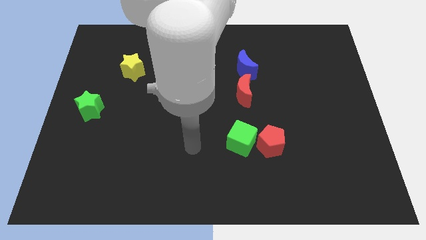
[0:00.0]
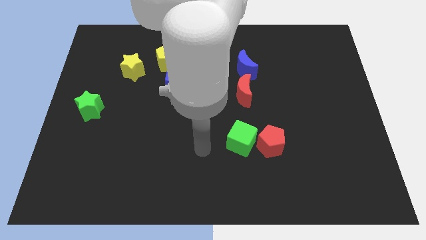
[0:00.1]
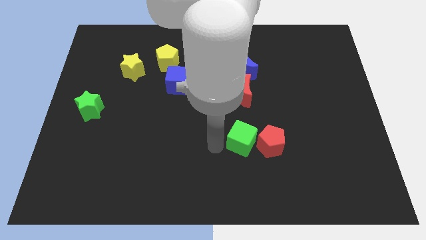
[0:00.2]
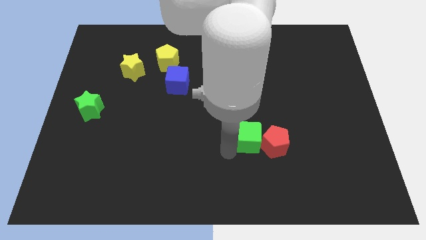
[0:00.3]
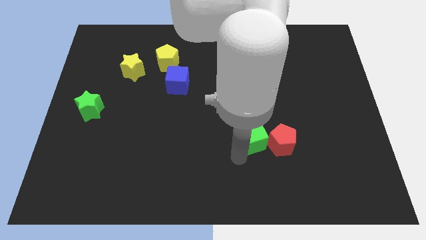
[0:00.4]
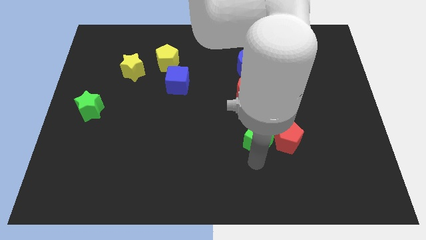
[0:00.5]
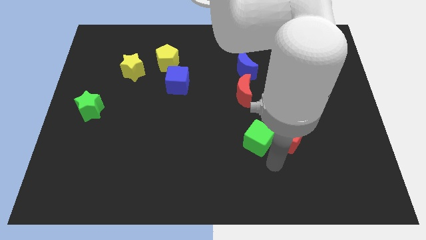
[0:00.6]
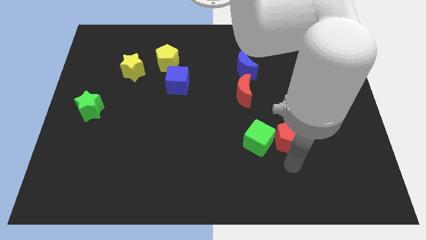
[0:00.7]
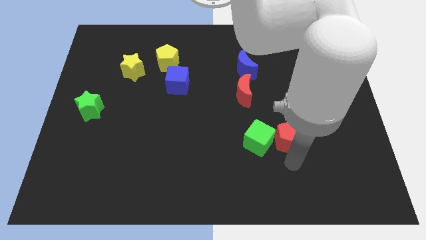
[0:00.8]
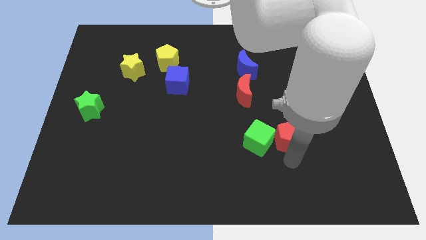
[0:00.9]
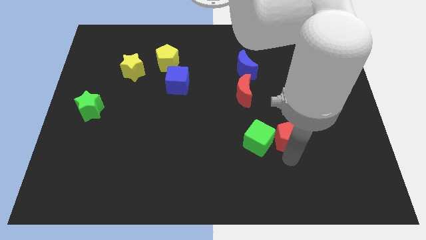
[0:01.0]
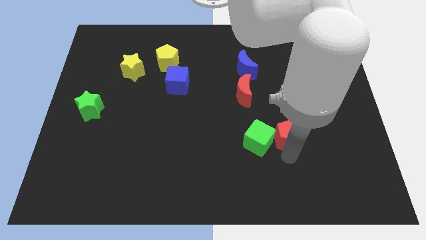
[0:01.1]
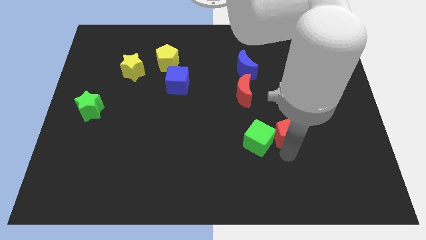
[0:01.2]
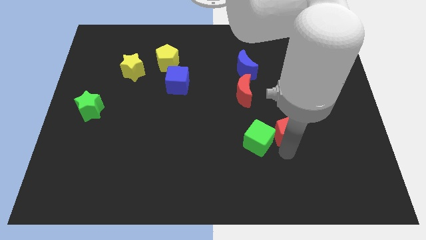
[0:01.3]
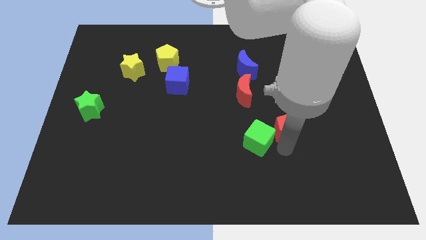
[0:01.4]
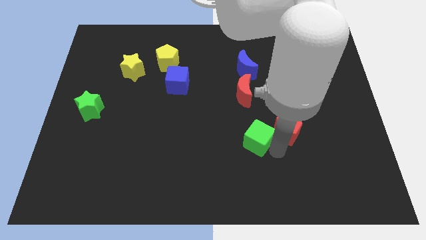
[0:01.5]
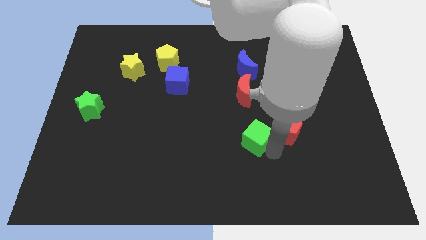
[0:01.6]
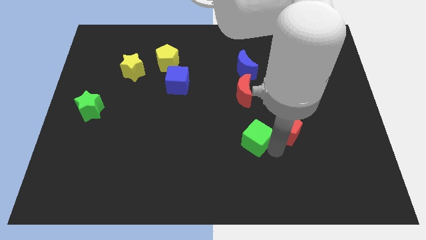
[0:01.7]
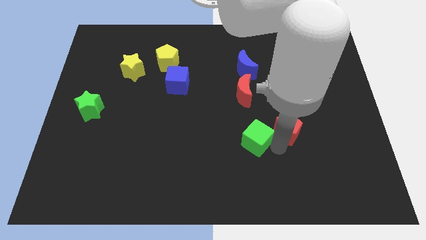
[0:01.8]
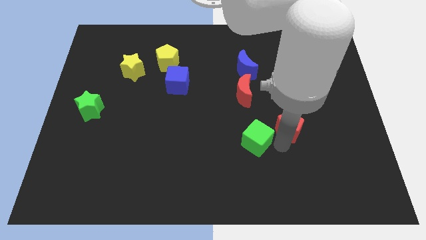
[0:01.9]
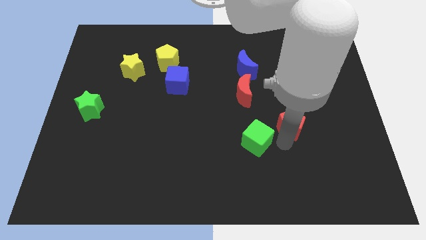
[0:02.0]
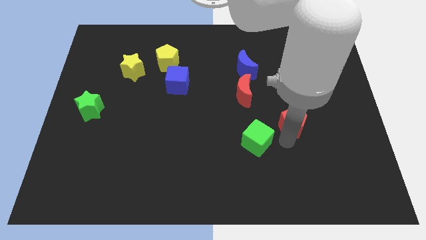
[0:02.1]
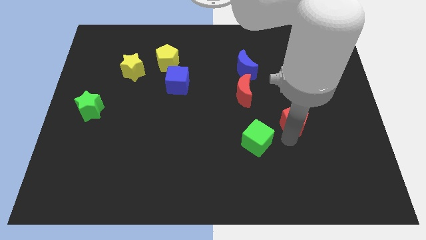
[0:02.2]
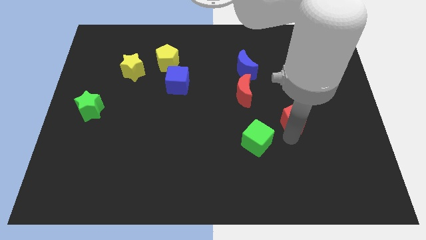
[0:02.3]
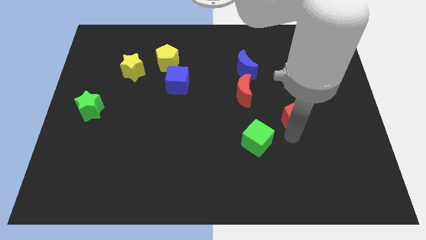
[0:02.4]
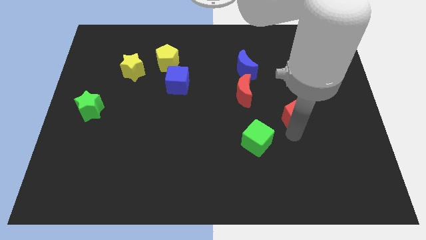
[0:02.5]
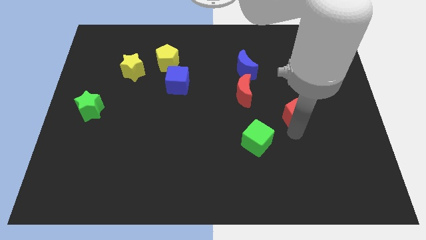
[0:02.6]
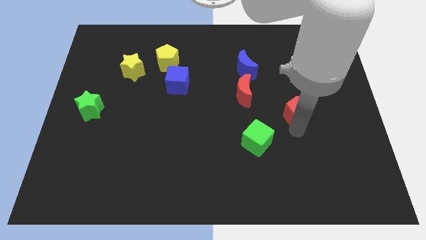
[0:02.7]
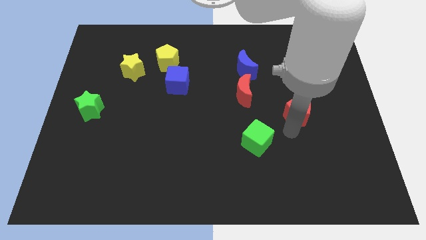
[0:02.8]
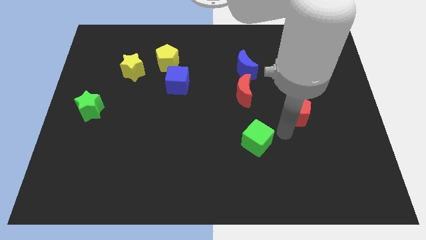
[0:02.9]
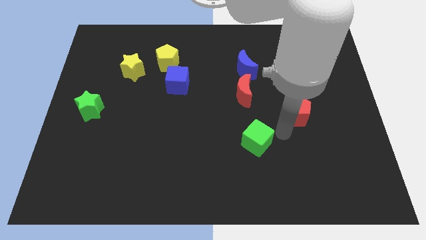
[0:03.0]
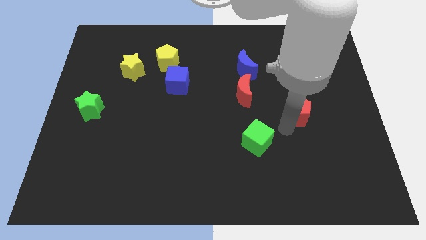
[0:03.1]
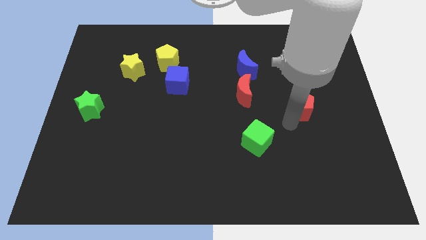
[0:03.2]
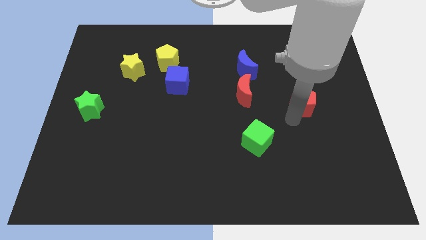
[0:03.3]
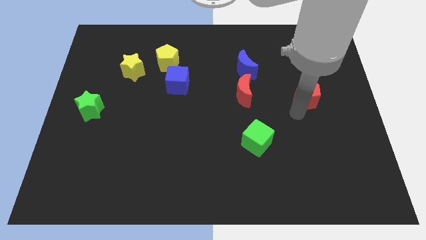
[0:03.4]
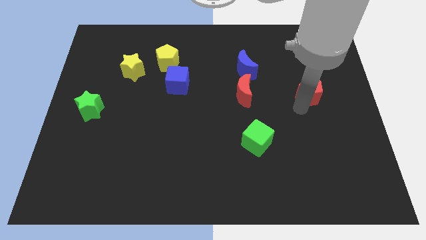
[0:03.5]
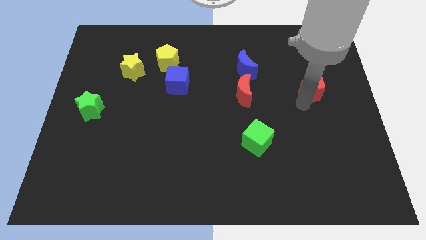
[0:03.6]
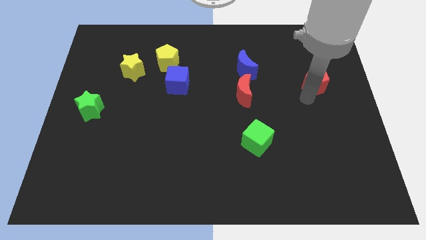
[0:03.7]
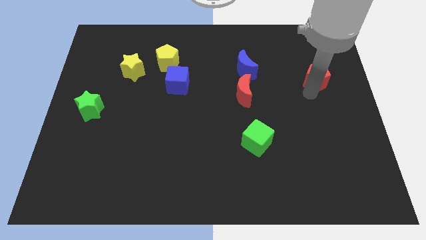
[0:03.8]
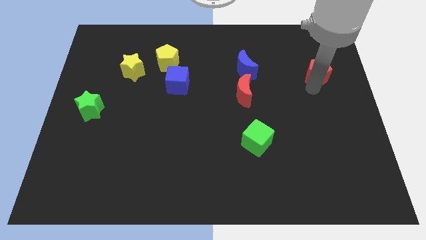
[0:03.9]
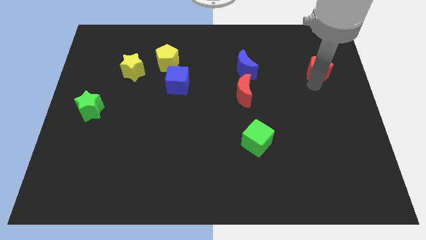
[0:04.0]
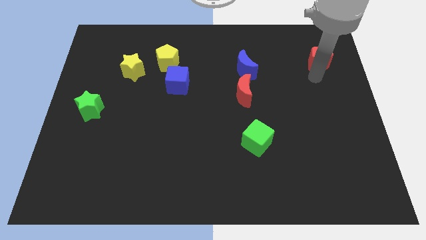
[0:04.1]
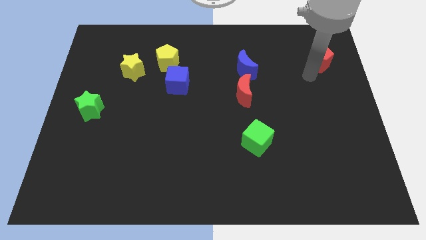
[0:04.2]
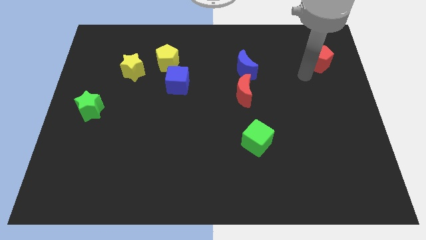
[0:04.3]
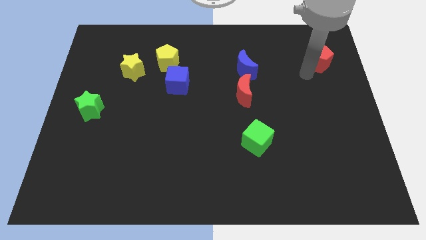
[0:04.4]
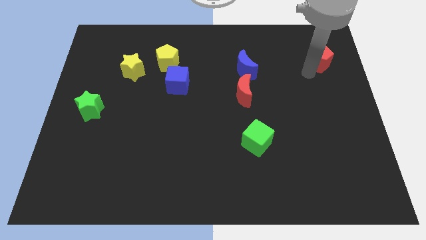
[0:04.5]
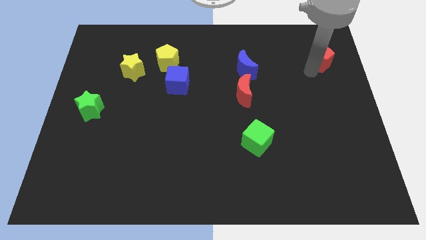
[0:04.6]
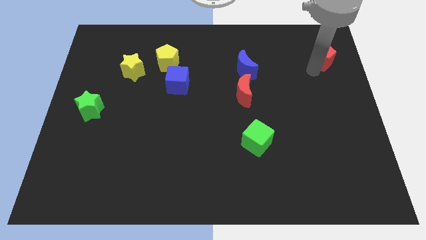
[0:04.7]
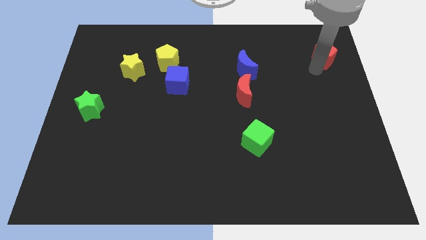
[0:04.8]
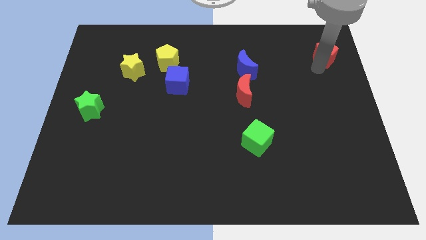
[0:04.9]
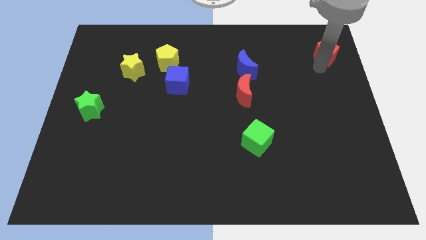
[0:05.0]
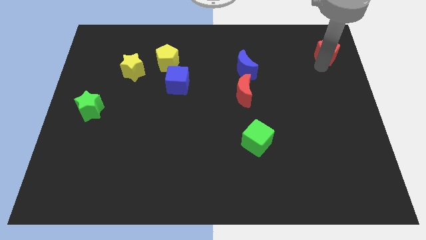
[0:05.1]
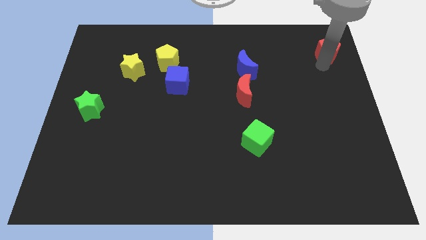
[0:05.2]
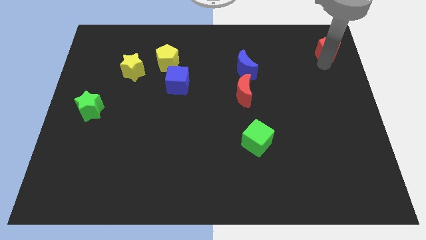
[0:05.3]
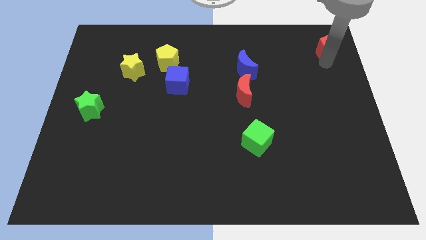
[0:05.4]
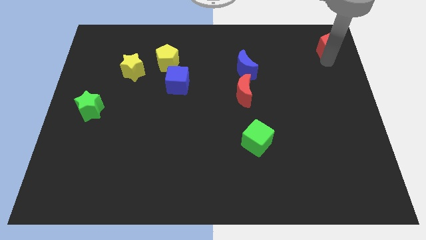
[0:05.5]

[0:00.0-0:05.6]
move the red pentagon to the upper right corner

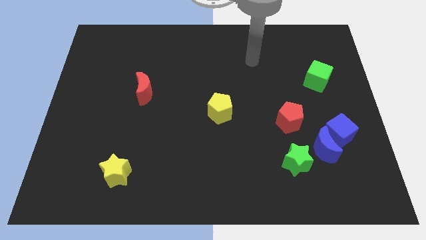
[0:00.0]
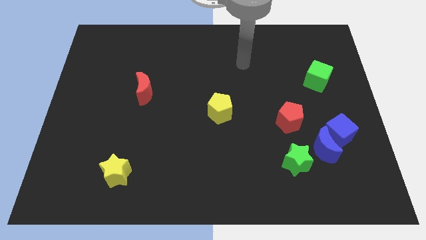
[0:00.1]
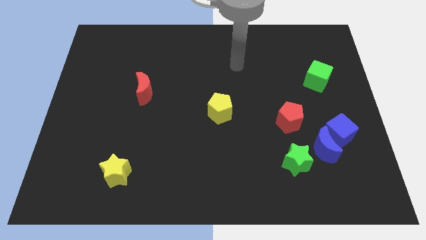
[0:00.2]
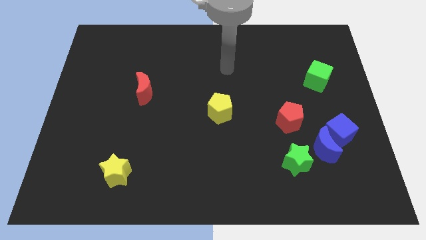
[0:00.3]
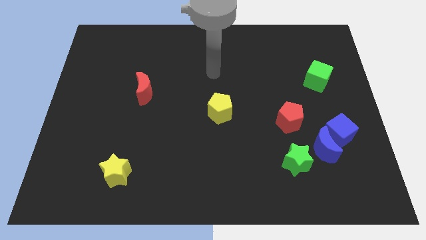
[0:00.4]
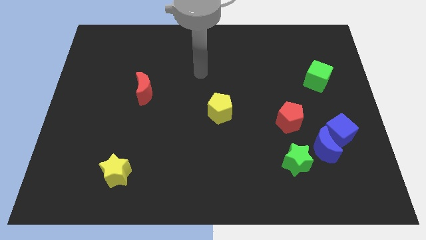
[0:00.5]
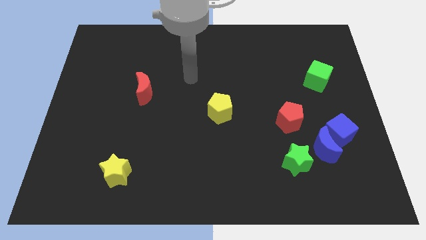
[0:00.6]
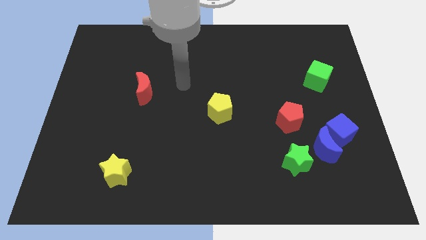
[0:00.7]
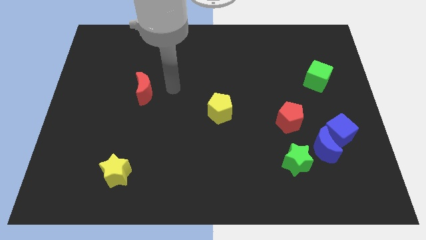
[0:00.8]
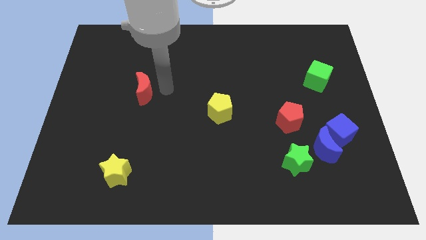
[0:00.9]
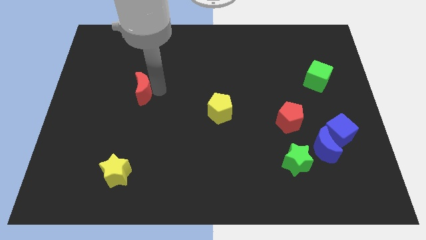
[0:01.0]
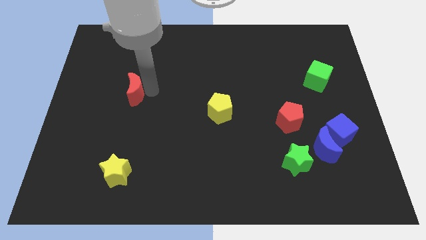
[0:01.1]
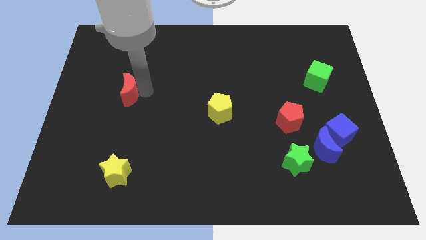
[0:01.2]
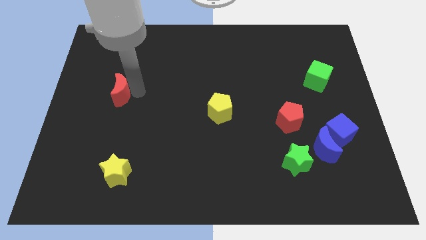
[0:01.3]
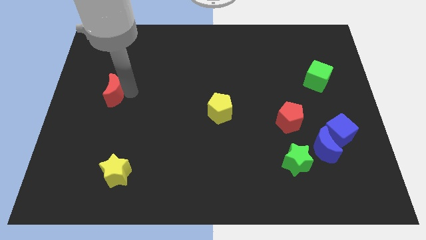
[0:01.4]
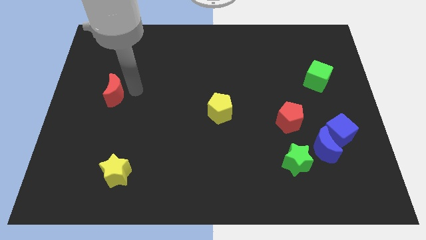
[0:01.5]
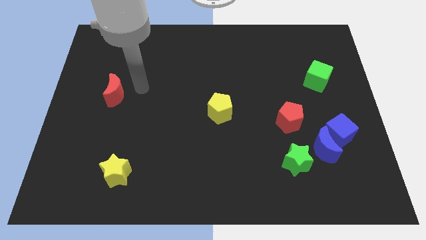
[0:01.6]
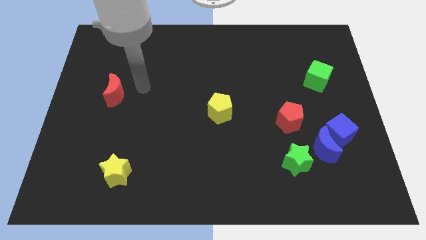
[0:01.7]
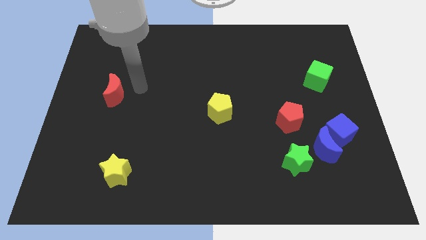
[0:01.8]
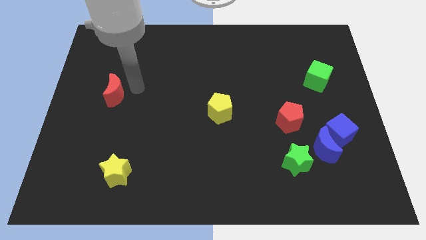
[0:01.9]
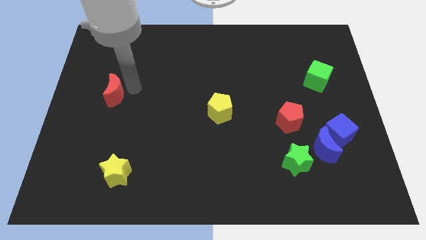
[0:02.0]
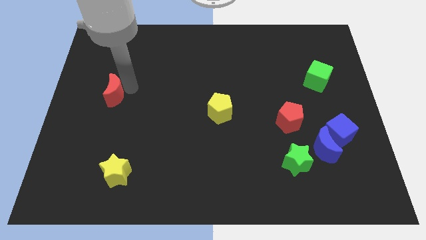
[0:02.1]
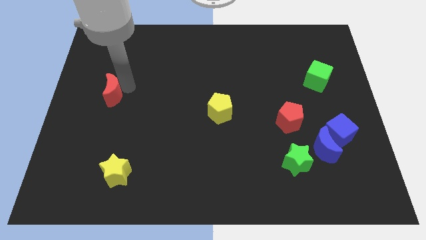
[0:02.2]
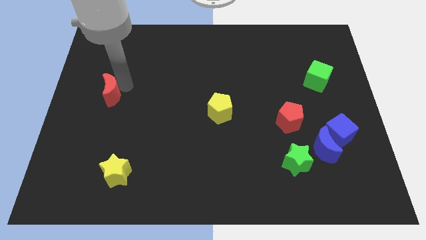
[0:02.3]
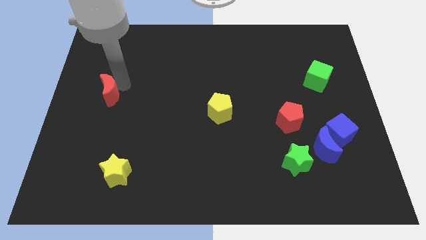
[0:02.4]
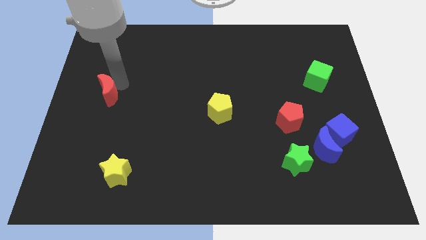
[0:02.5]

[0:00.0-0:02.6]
push the red moon to the left side
